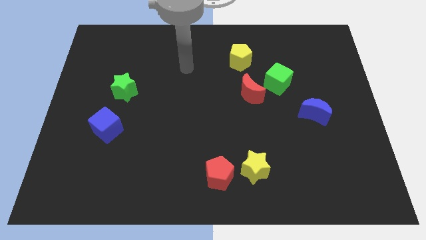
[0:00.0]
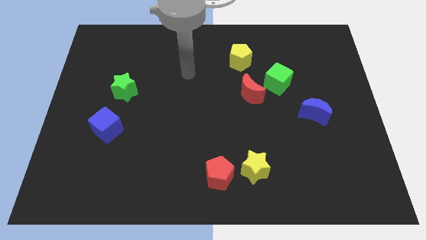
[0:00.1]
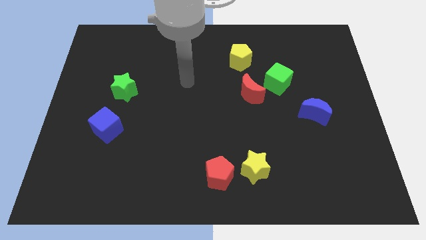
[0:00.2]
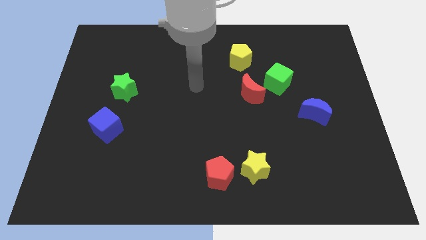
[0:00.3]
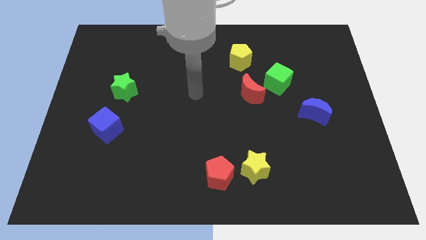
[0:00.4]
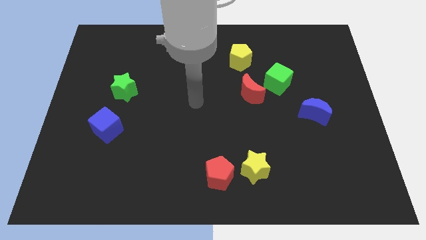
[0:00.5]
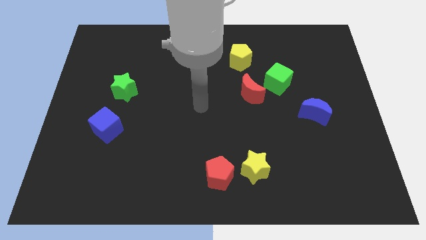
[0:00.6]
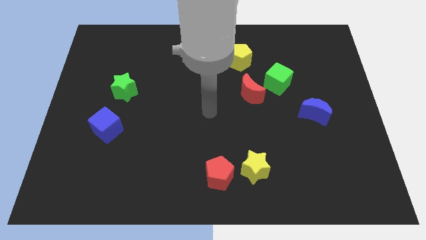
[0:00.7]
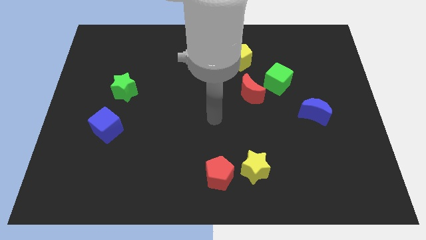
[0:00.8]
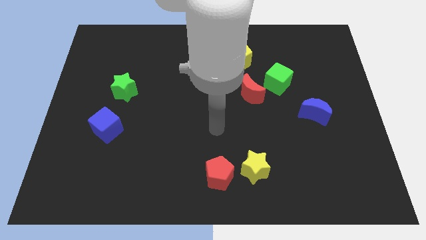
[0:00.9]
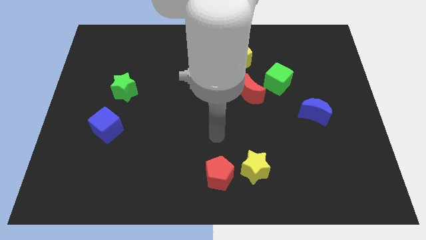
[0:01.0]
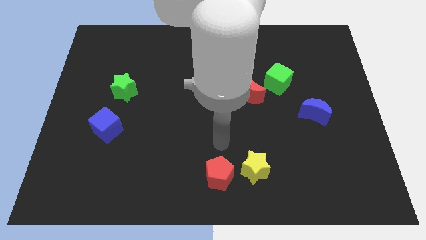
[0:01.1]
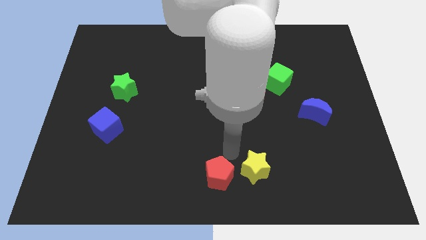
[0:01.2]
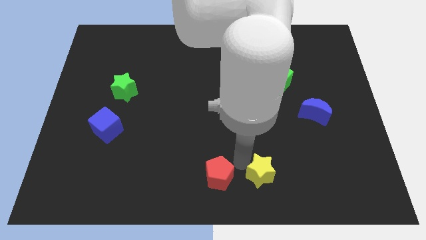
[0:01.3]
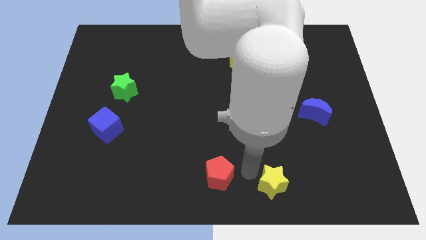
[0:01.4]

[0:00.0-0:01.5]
move the red pentagon away from the yellow star

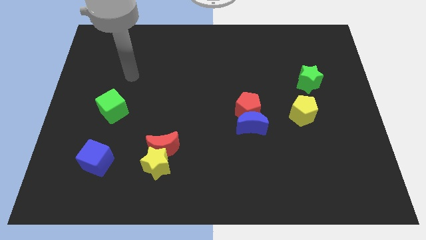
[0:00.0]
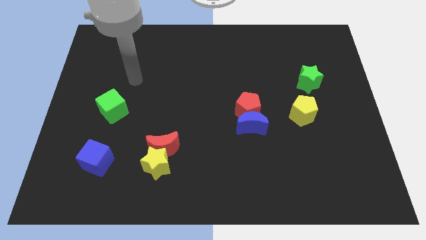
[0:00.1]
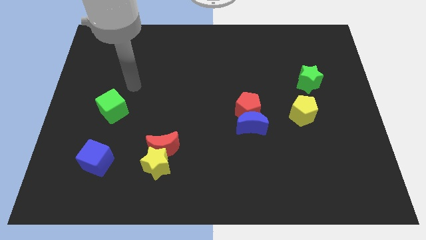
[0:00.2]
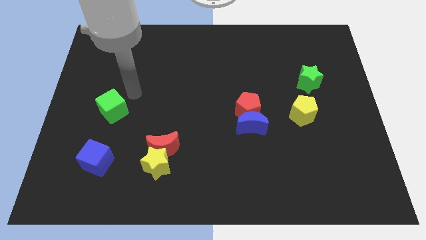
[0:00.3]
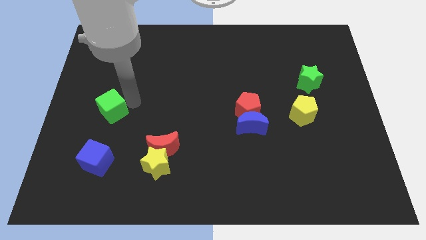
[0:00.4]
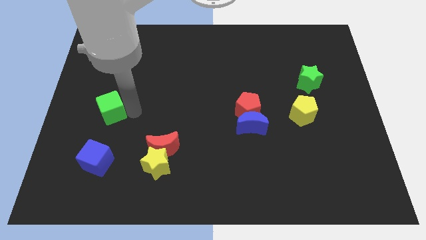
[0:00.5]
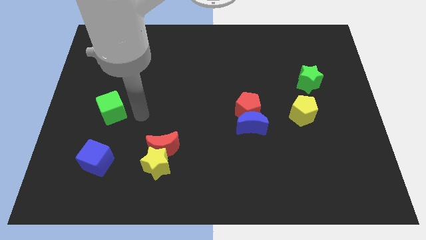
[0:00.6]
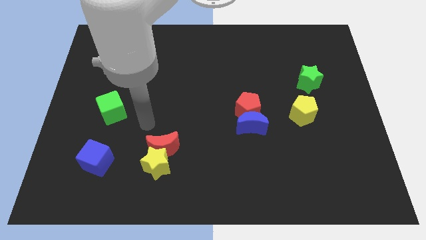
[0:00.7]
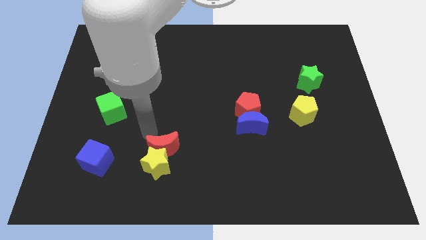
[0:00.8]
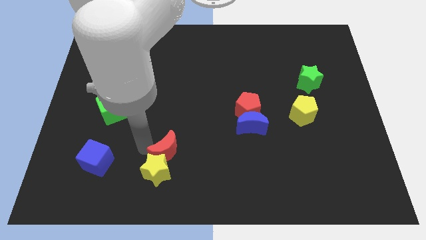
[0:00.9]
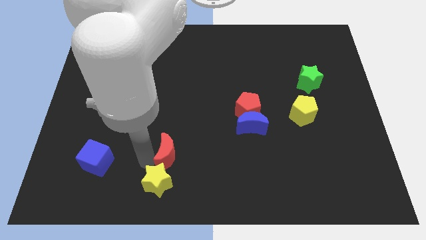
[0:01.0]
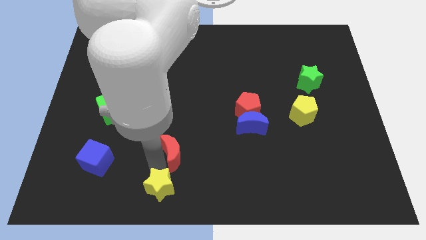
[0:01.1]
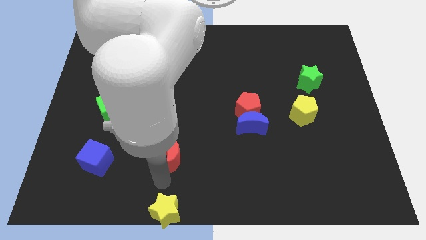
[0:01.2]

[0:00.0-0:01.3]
move the red moon away from the yellow star

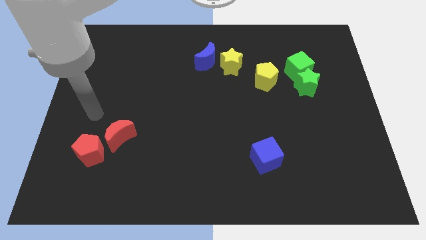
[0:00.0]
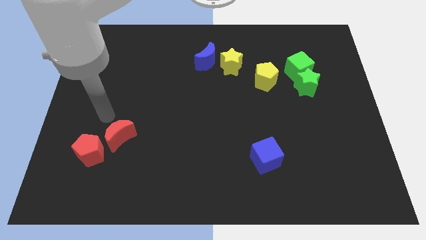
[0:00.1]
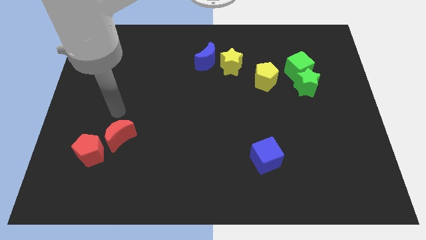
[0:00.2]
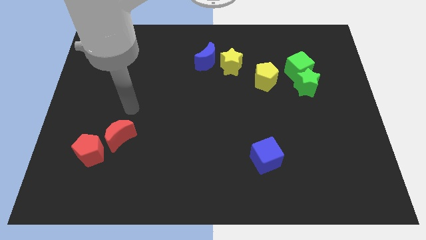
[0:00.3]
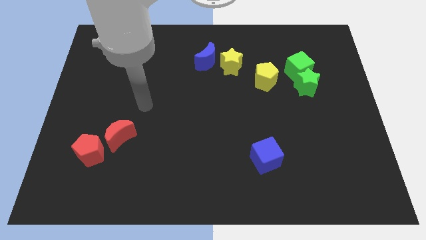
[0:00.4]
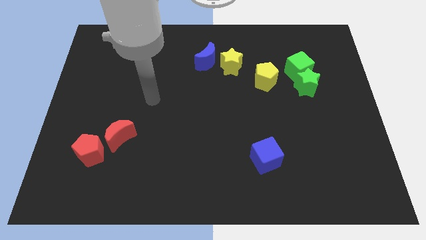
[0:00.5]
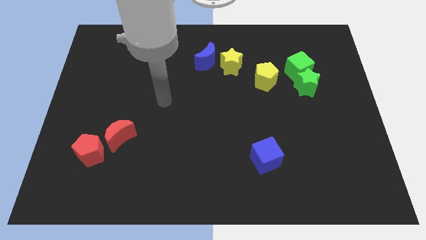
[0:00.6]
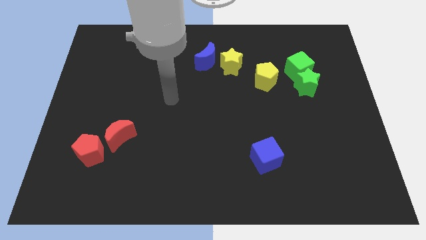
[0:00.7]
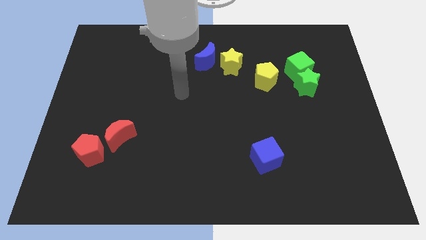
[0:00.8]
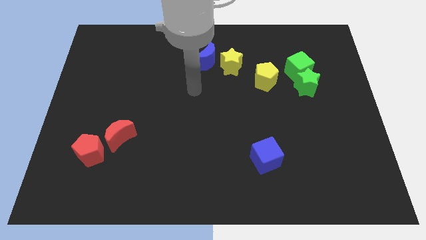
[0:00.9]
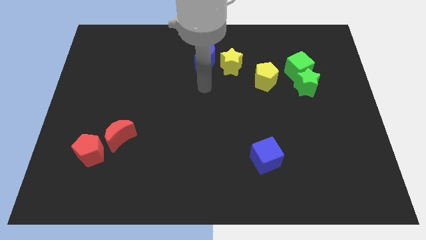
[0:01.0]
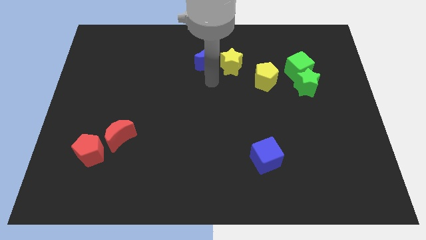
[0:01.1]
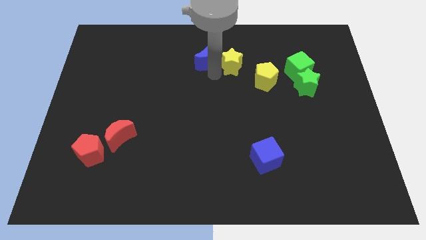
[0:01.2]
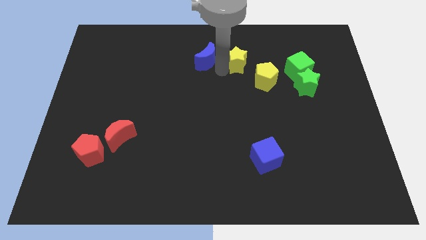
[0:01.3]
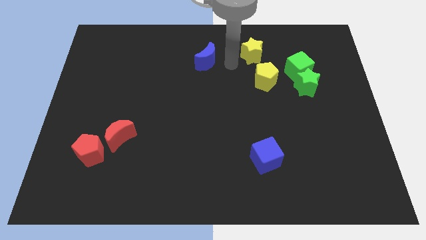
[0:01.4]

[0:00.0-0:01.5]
move the blue moon away from the yellow star

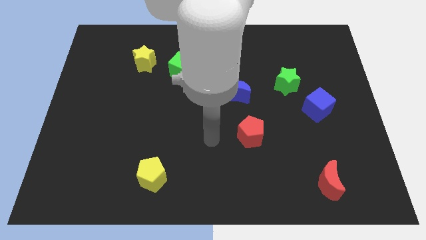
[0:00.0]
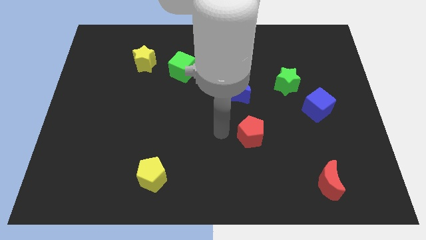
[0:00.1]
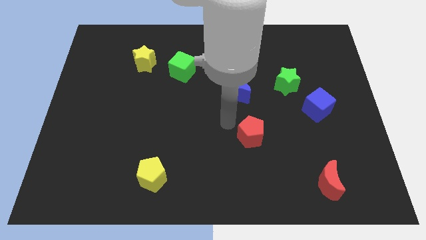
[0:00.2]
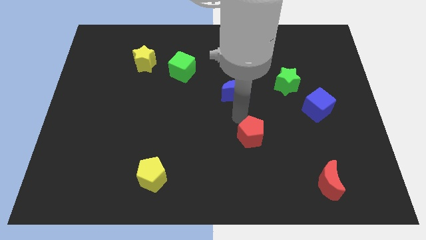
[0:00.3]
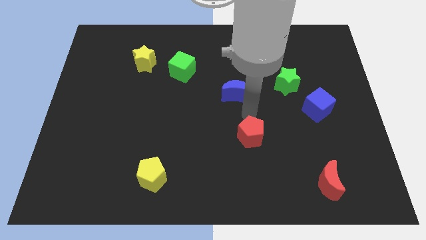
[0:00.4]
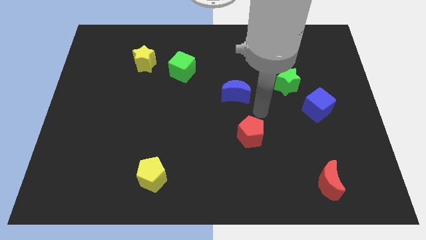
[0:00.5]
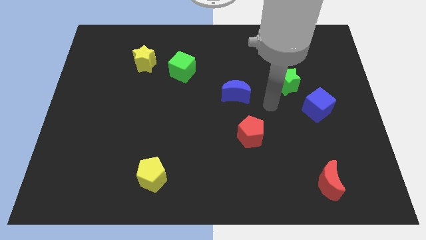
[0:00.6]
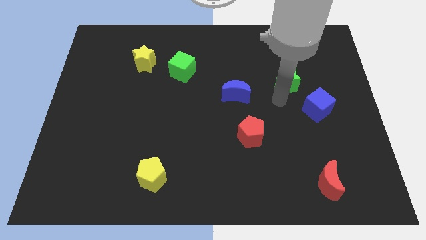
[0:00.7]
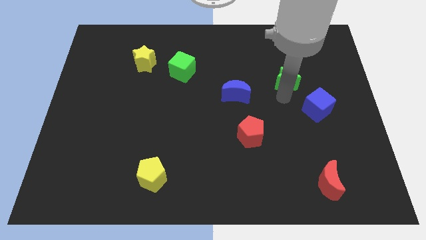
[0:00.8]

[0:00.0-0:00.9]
pull the blue cube apart from the green star

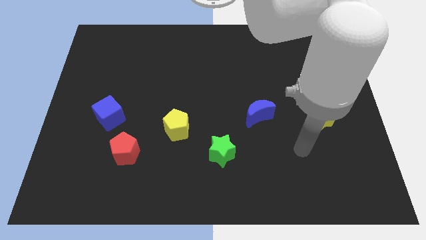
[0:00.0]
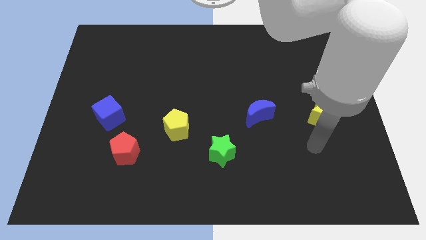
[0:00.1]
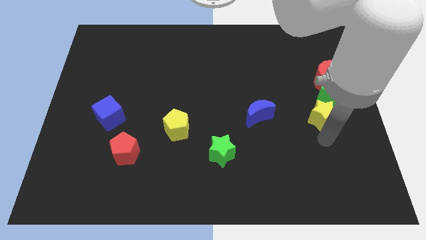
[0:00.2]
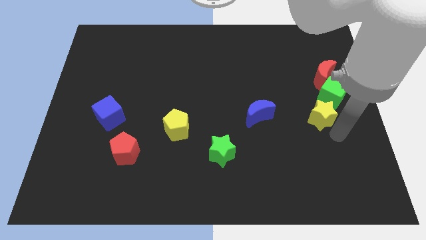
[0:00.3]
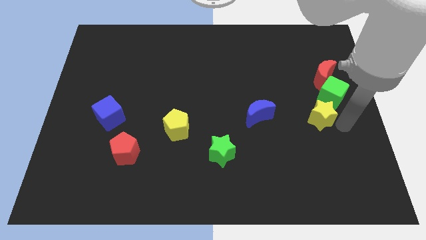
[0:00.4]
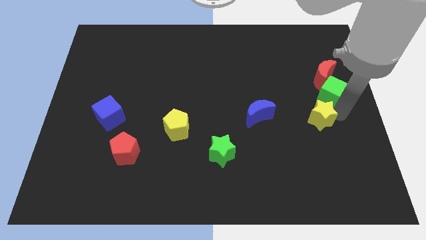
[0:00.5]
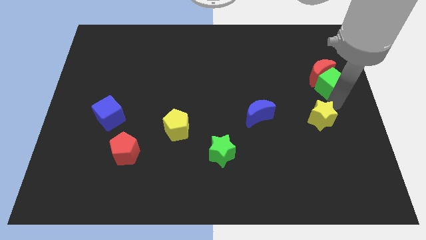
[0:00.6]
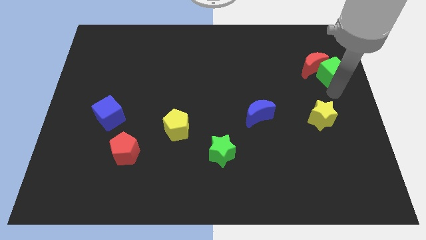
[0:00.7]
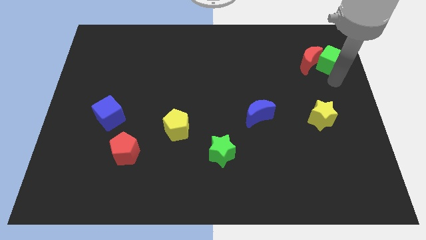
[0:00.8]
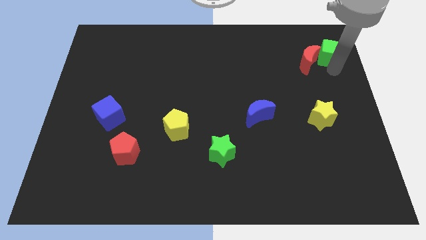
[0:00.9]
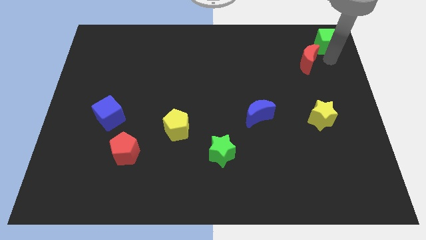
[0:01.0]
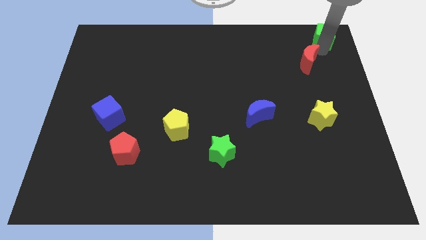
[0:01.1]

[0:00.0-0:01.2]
separate the red moon from the green cube

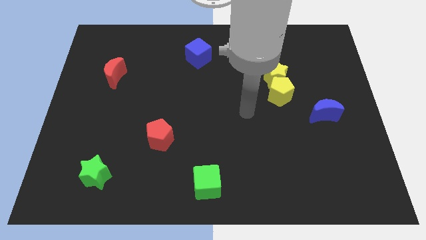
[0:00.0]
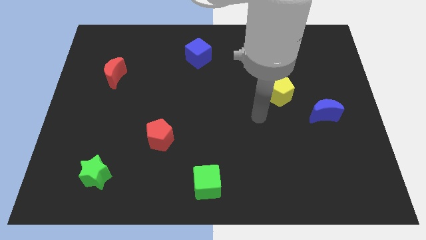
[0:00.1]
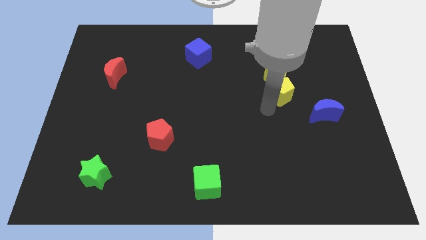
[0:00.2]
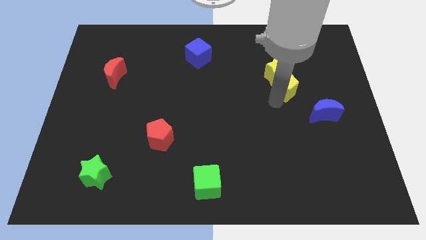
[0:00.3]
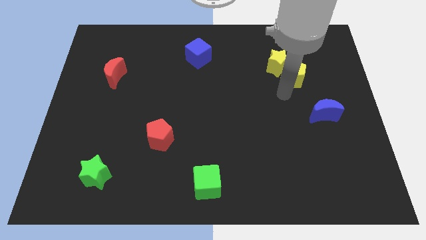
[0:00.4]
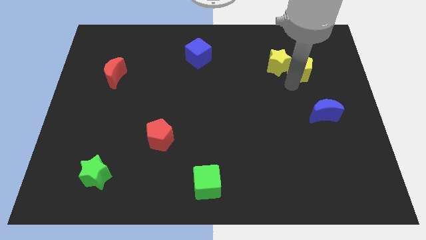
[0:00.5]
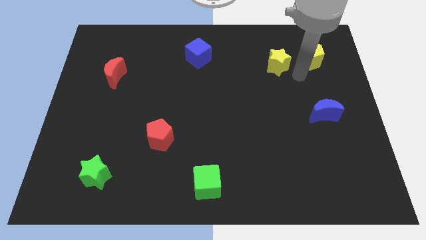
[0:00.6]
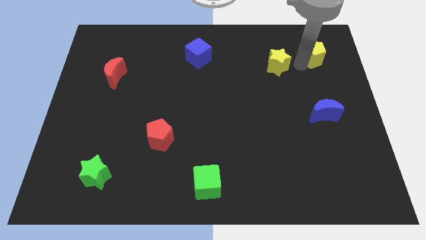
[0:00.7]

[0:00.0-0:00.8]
move the yellow star away from the yellow pentagon

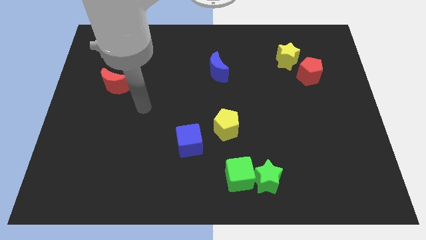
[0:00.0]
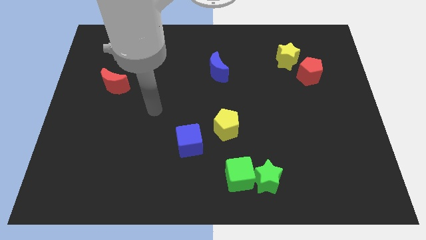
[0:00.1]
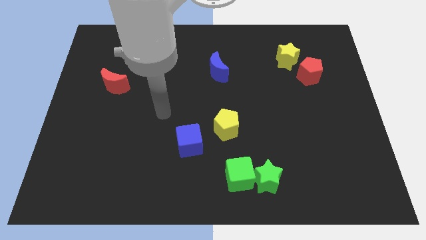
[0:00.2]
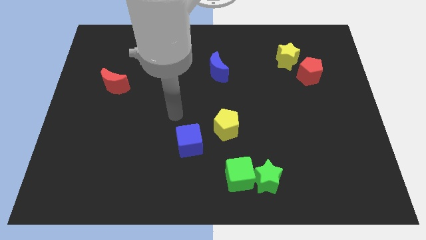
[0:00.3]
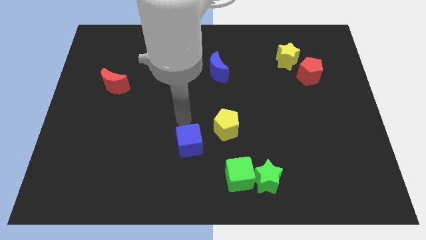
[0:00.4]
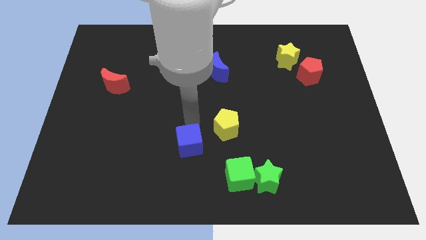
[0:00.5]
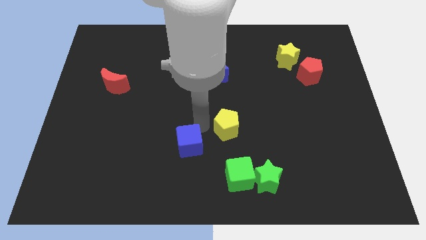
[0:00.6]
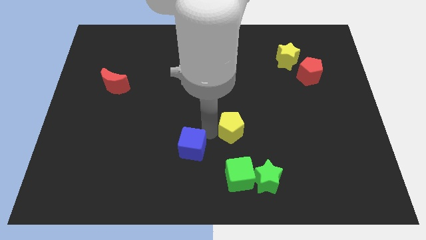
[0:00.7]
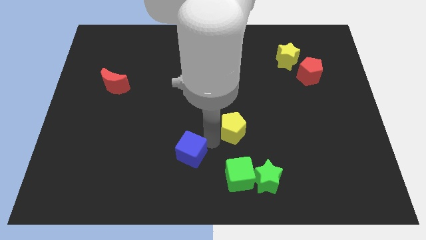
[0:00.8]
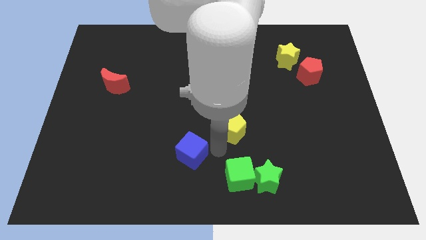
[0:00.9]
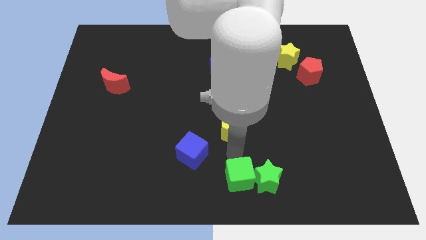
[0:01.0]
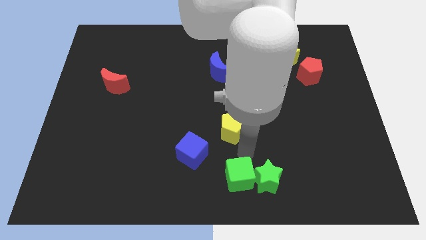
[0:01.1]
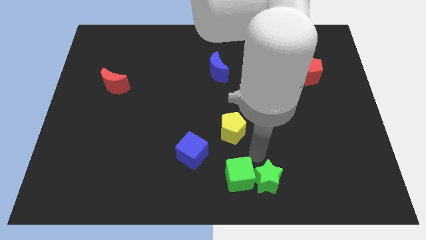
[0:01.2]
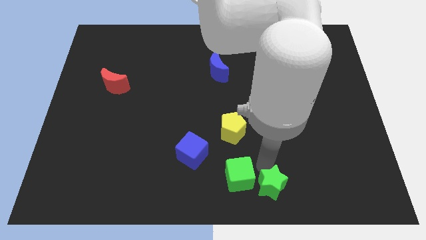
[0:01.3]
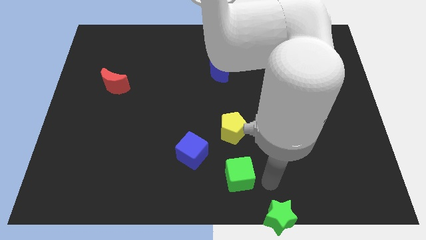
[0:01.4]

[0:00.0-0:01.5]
separate the green cube from the green star

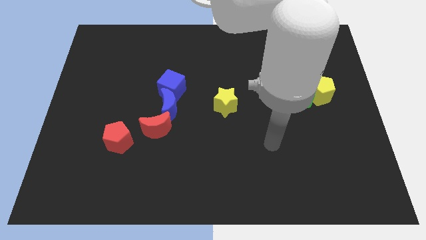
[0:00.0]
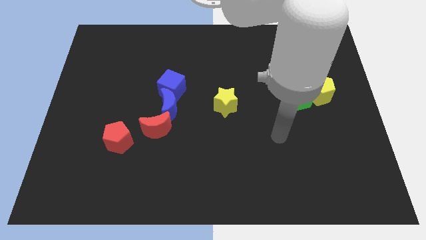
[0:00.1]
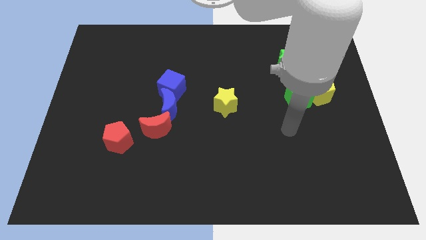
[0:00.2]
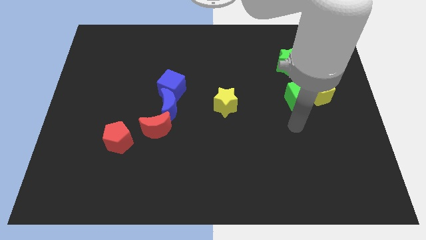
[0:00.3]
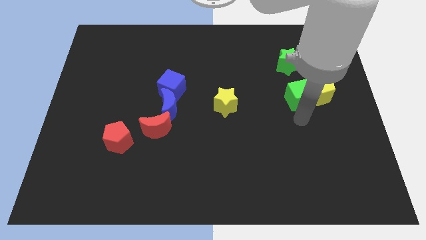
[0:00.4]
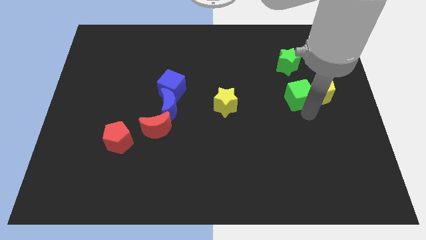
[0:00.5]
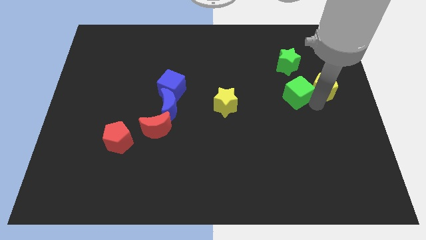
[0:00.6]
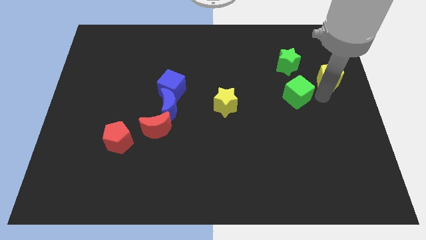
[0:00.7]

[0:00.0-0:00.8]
separate the green cube from the yellow pentagon

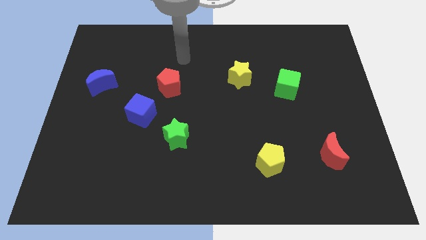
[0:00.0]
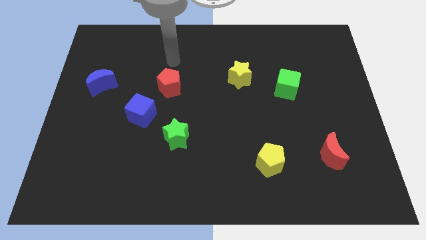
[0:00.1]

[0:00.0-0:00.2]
move the red pentagon away from the blue cube
